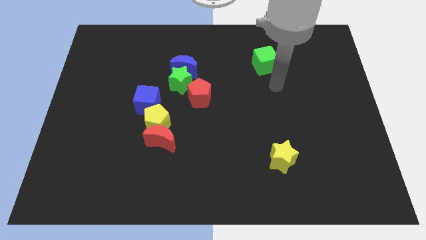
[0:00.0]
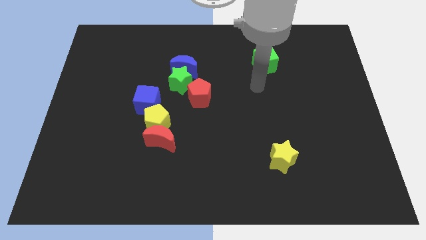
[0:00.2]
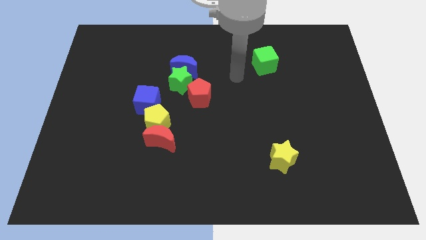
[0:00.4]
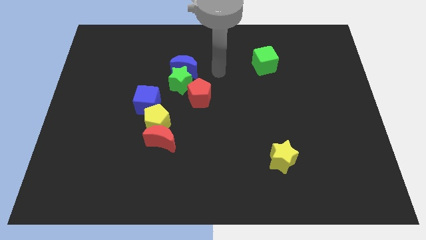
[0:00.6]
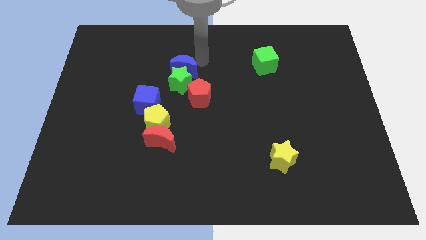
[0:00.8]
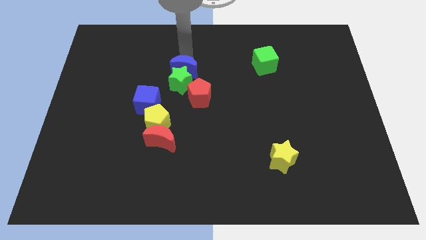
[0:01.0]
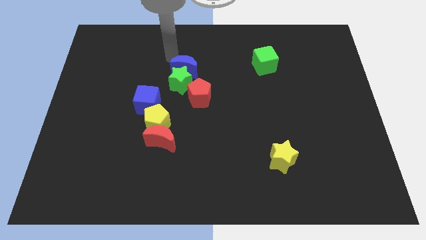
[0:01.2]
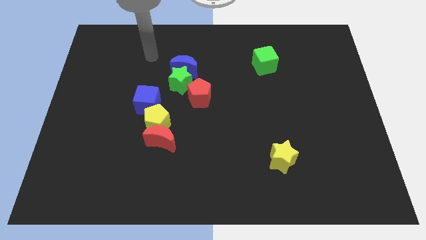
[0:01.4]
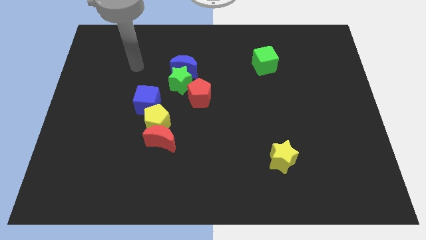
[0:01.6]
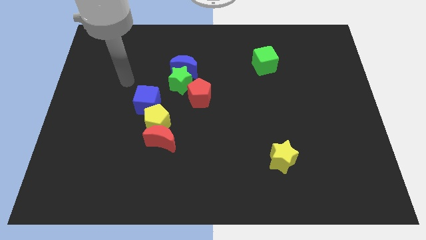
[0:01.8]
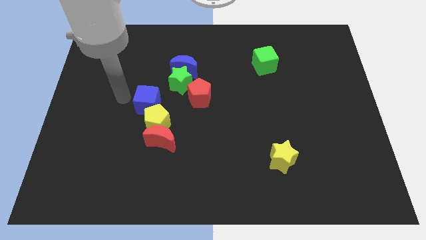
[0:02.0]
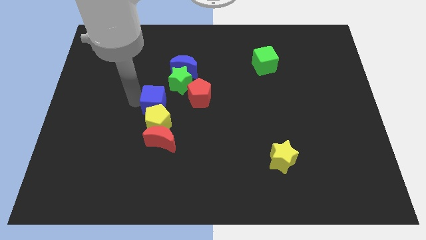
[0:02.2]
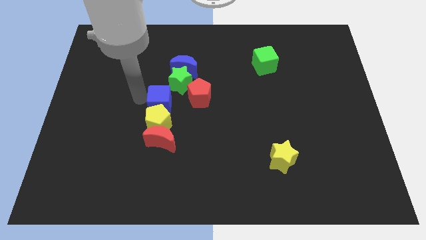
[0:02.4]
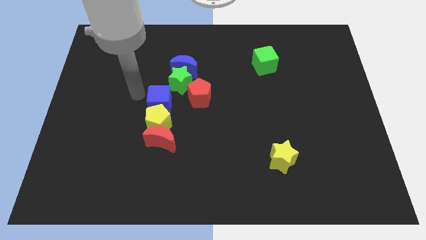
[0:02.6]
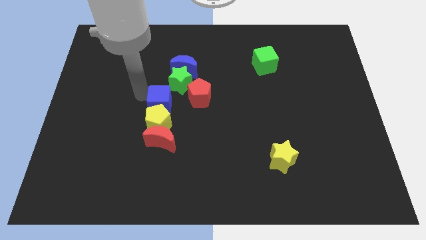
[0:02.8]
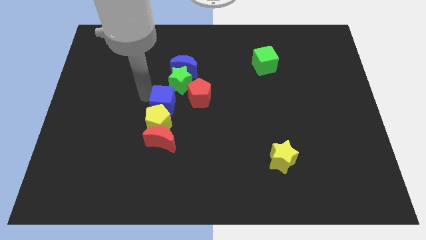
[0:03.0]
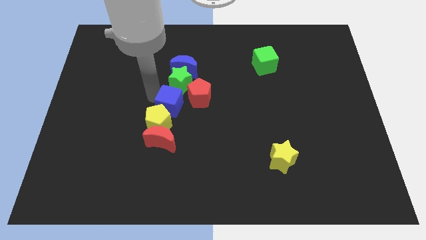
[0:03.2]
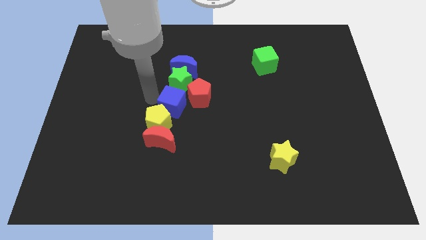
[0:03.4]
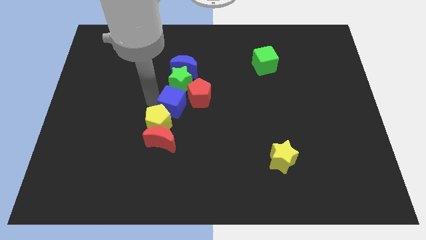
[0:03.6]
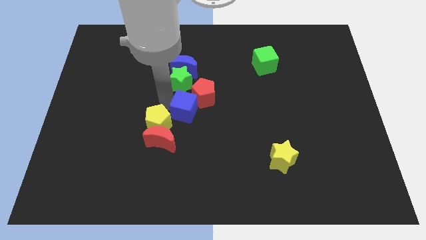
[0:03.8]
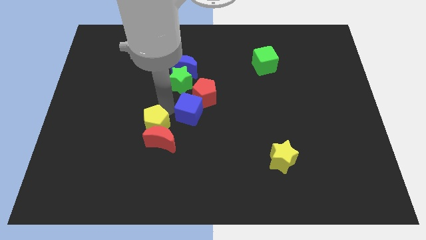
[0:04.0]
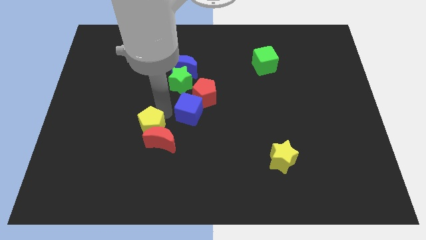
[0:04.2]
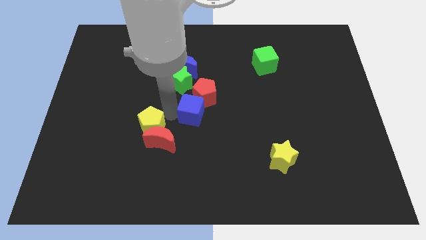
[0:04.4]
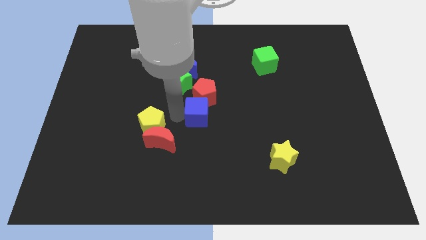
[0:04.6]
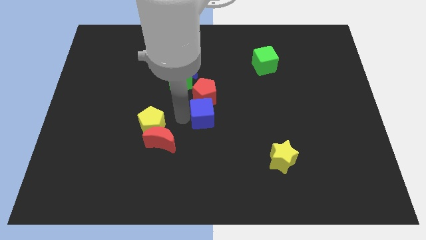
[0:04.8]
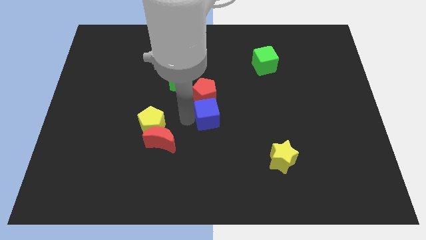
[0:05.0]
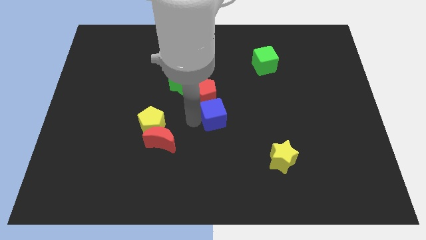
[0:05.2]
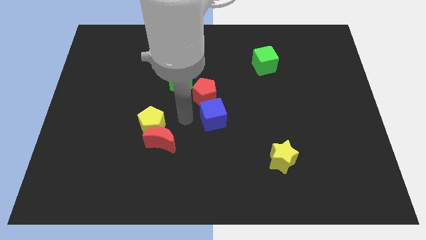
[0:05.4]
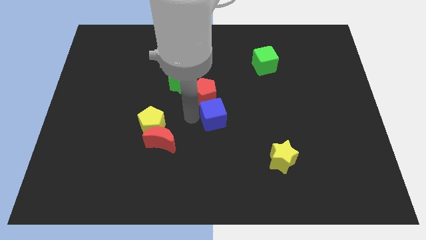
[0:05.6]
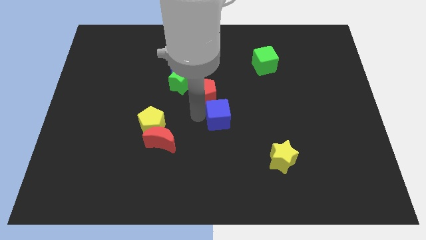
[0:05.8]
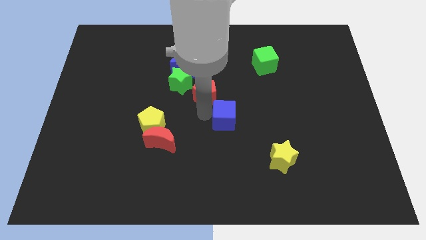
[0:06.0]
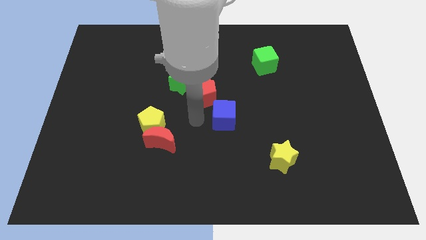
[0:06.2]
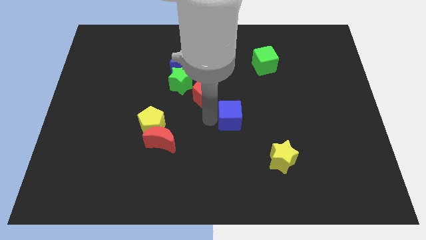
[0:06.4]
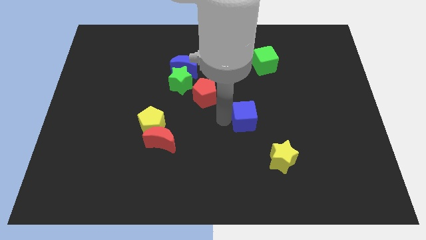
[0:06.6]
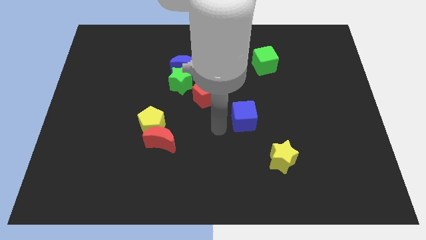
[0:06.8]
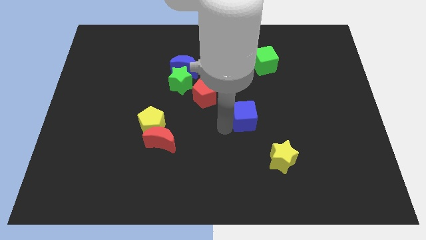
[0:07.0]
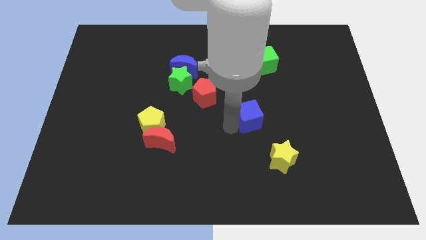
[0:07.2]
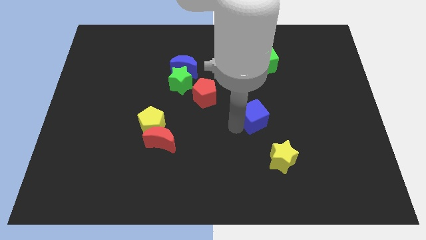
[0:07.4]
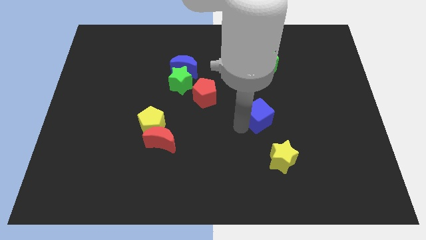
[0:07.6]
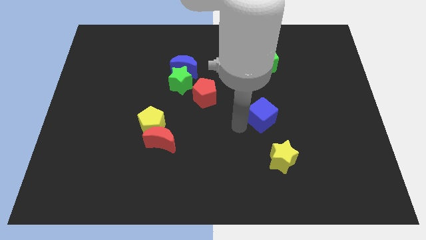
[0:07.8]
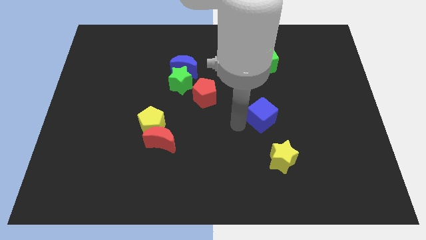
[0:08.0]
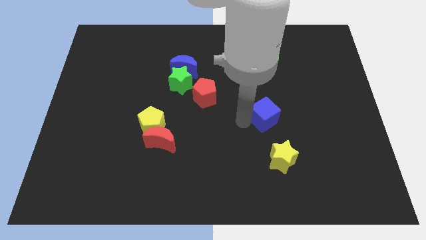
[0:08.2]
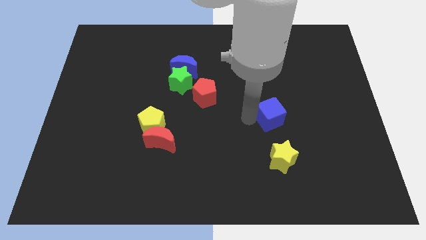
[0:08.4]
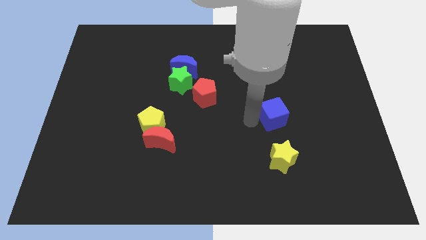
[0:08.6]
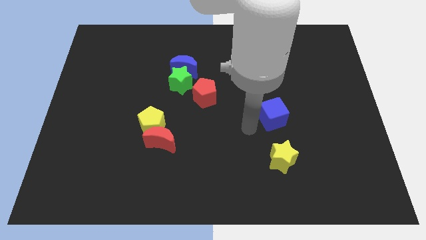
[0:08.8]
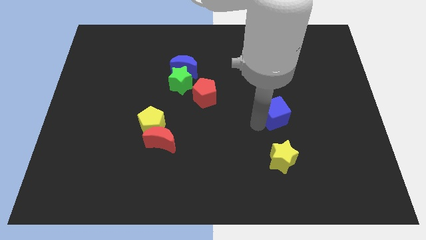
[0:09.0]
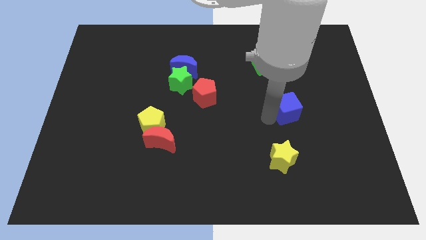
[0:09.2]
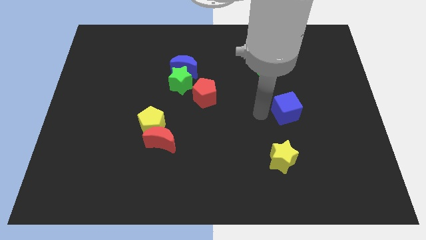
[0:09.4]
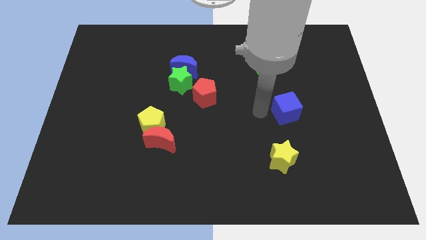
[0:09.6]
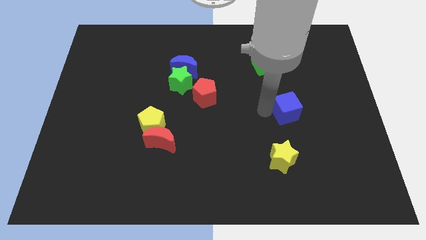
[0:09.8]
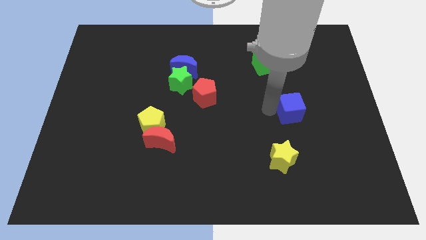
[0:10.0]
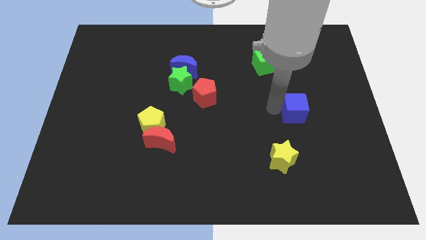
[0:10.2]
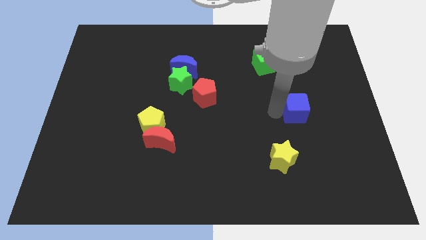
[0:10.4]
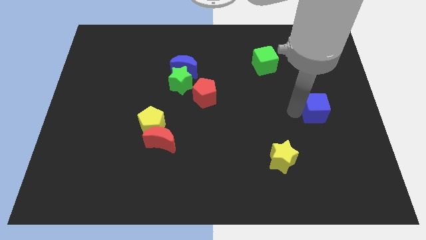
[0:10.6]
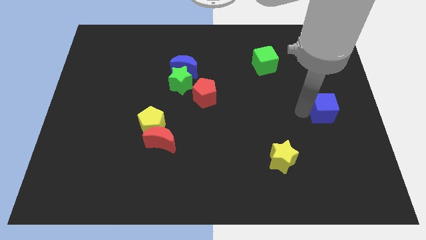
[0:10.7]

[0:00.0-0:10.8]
put the blue cube to the right side

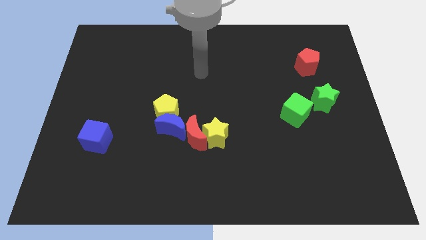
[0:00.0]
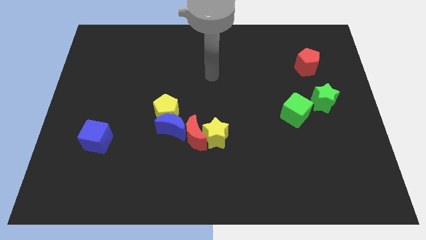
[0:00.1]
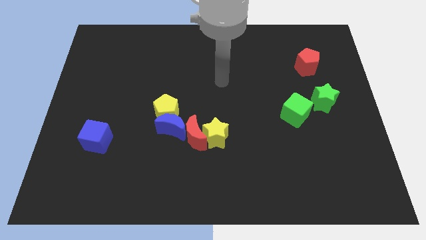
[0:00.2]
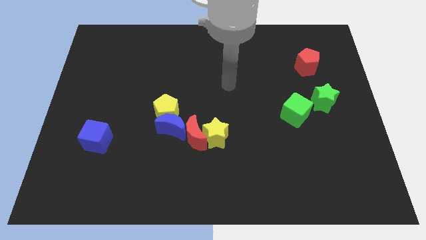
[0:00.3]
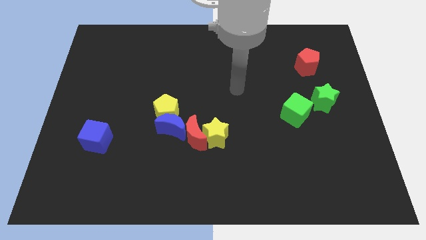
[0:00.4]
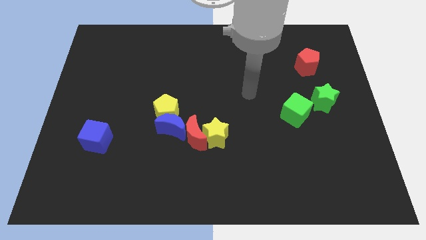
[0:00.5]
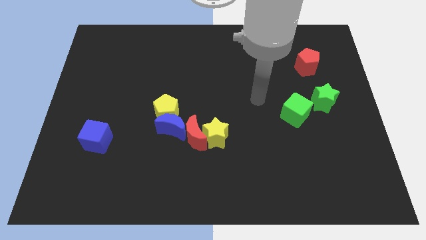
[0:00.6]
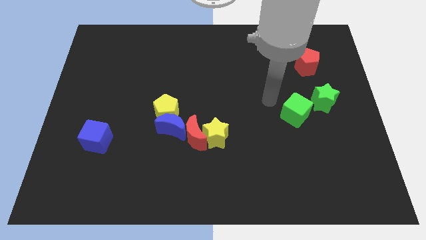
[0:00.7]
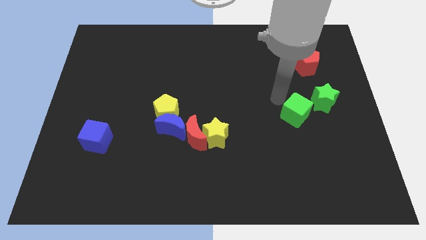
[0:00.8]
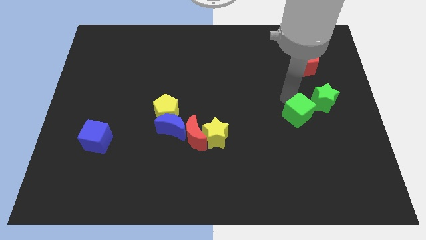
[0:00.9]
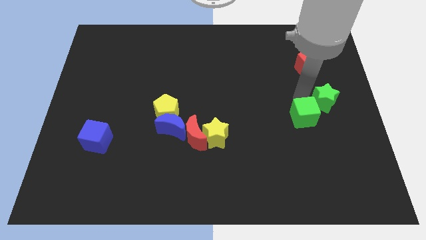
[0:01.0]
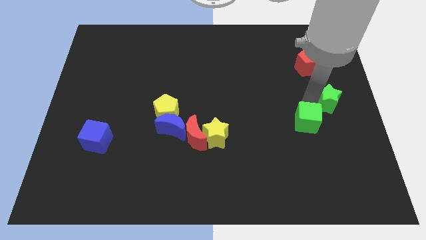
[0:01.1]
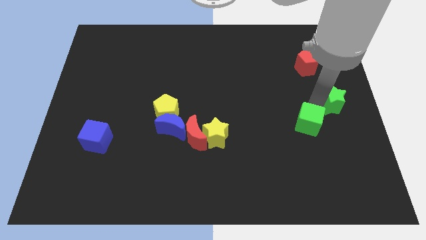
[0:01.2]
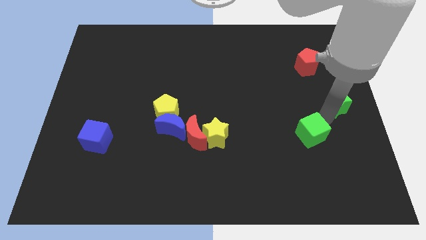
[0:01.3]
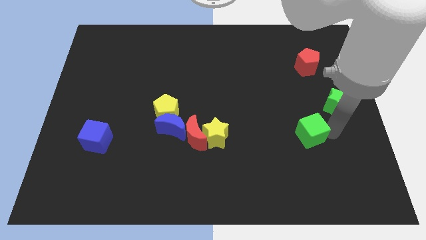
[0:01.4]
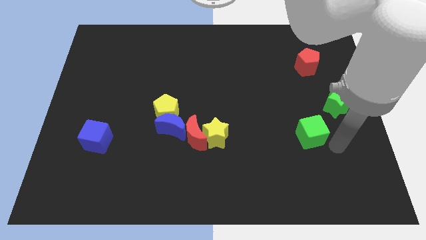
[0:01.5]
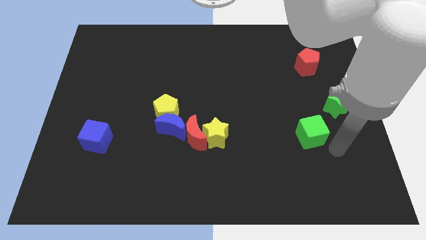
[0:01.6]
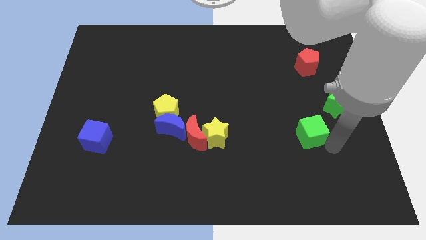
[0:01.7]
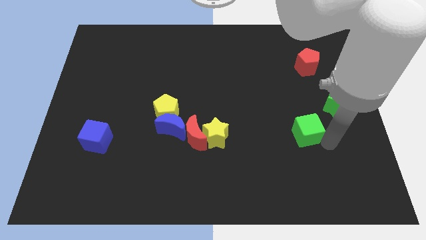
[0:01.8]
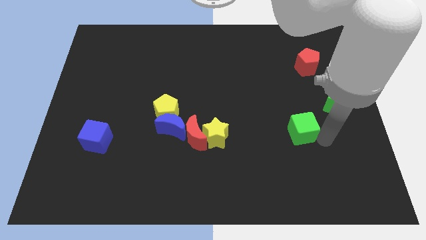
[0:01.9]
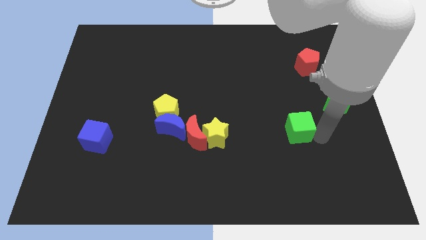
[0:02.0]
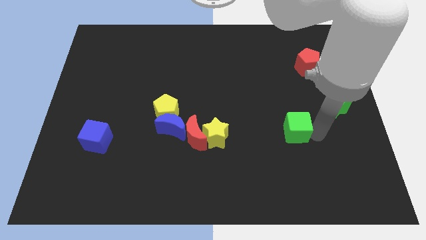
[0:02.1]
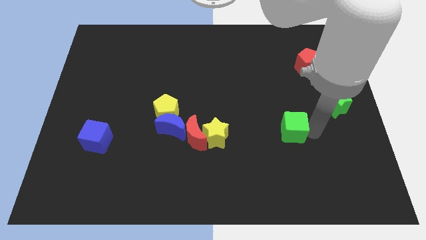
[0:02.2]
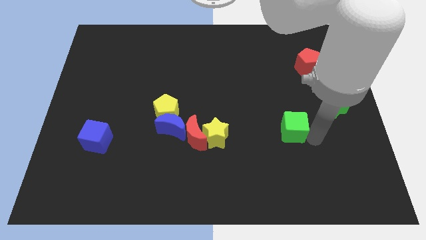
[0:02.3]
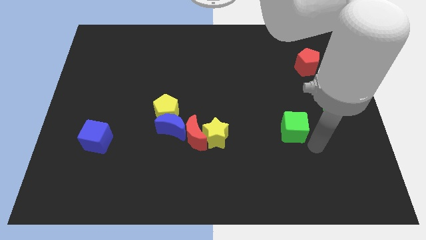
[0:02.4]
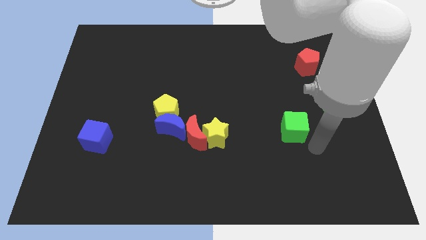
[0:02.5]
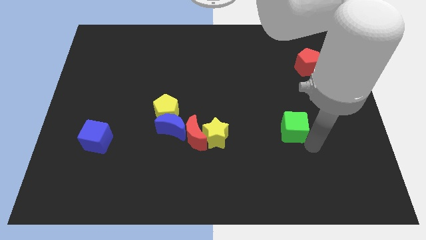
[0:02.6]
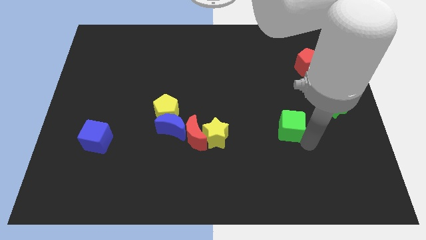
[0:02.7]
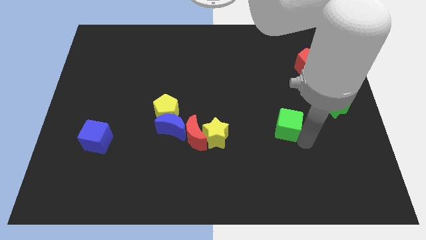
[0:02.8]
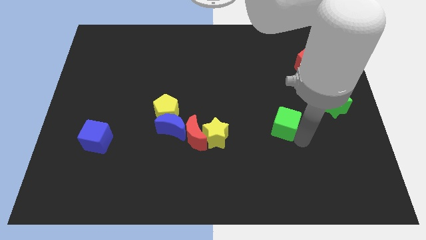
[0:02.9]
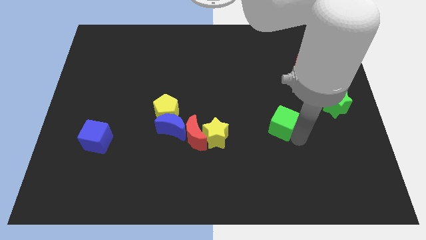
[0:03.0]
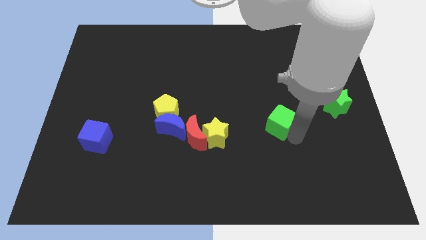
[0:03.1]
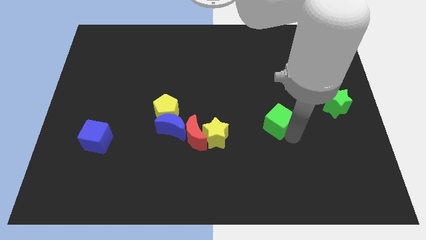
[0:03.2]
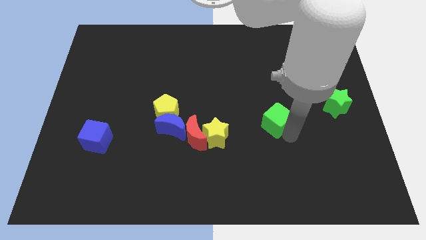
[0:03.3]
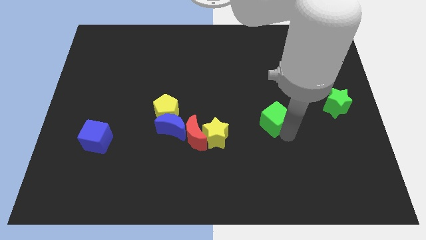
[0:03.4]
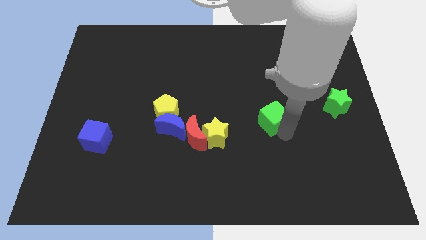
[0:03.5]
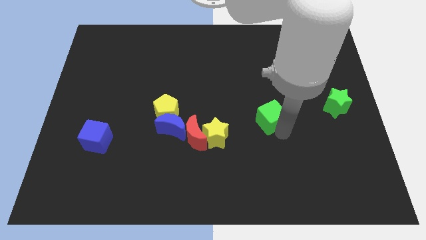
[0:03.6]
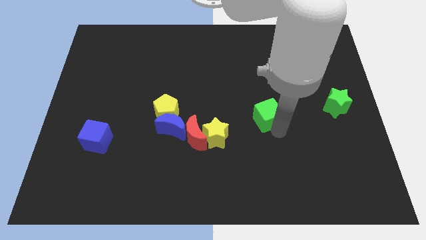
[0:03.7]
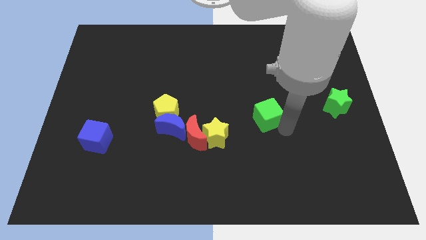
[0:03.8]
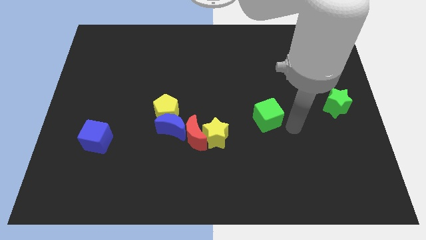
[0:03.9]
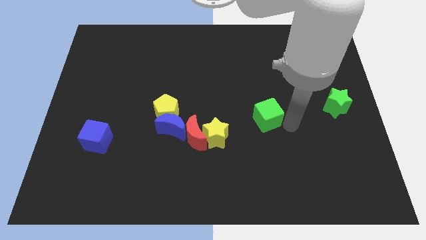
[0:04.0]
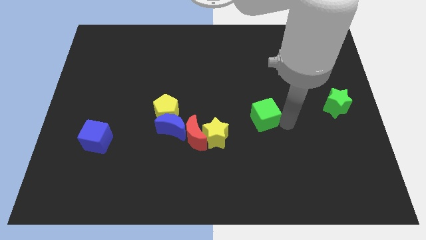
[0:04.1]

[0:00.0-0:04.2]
put the green cube to the middle of the board
